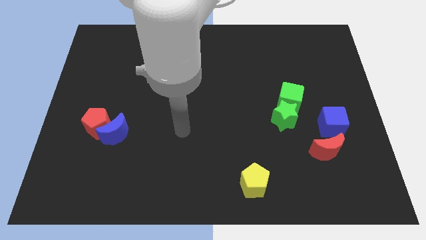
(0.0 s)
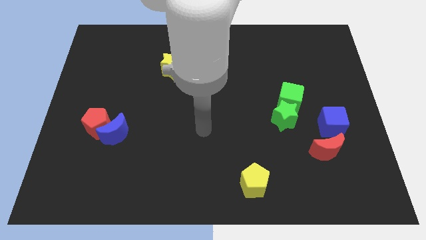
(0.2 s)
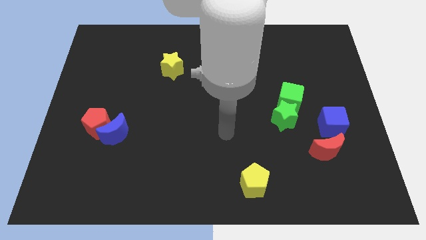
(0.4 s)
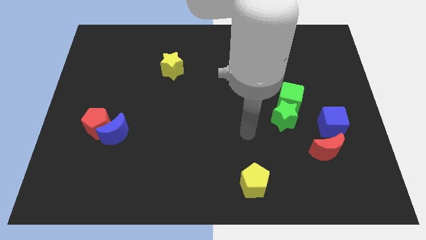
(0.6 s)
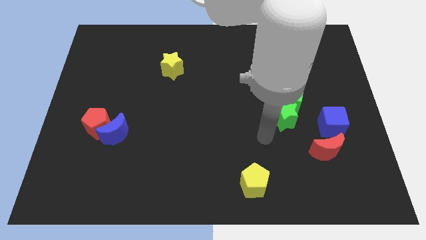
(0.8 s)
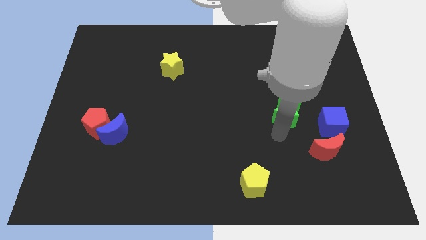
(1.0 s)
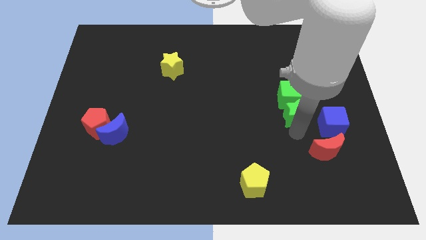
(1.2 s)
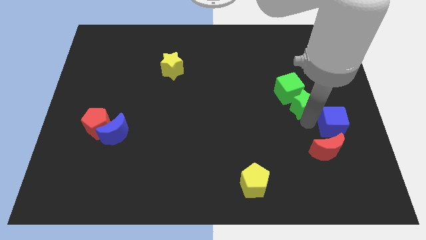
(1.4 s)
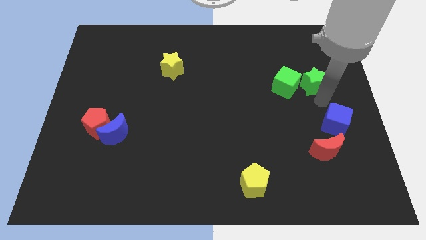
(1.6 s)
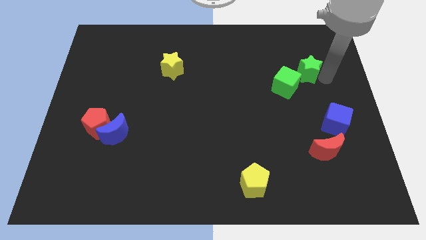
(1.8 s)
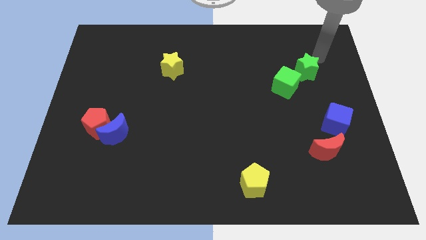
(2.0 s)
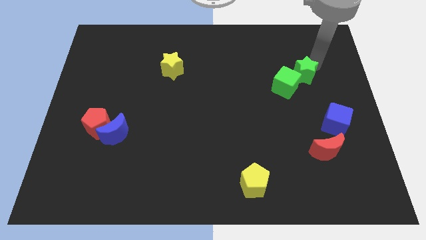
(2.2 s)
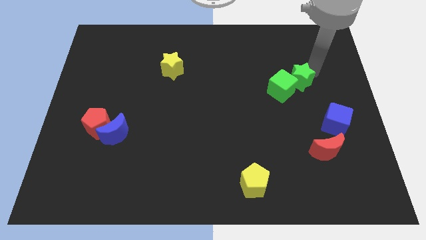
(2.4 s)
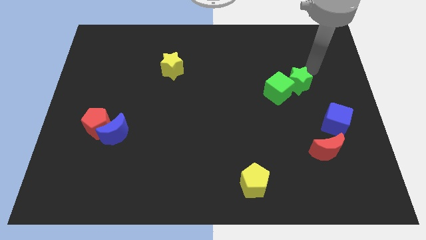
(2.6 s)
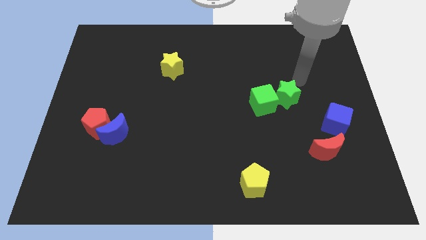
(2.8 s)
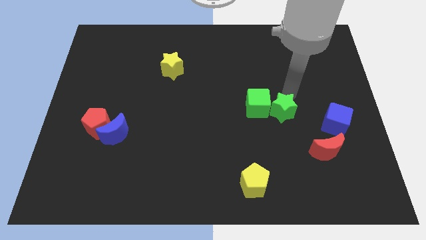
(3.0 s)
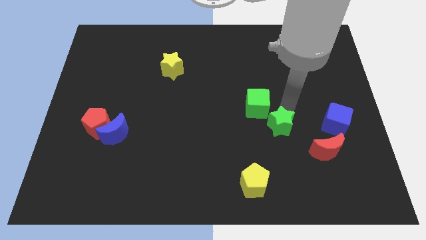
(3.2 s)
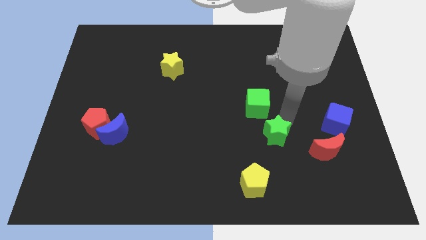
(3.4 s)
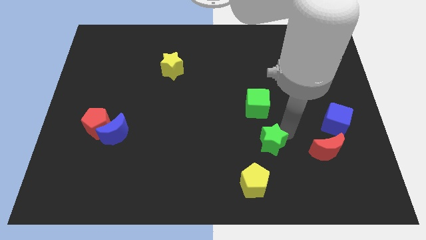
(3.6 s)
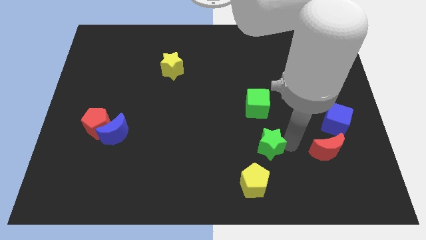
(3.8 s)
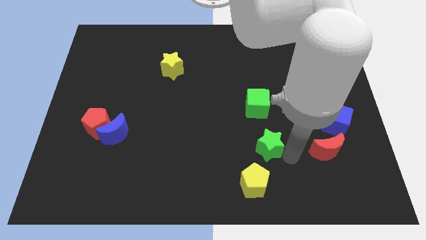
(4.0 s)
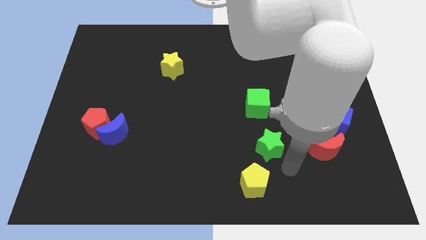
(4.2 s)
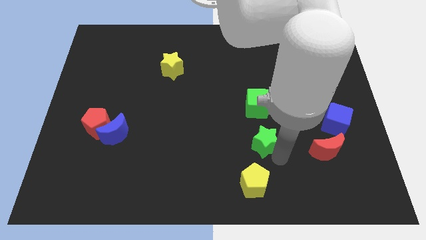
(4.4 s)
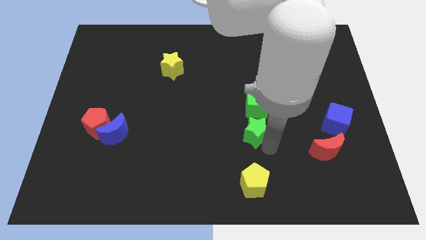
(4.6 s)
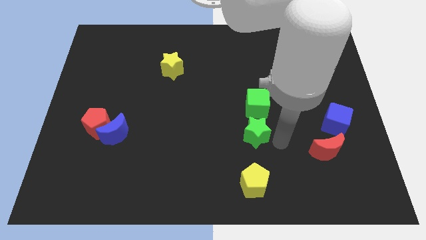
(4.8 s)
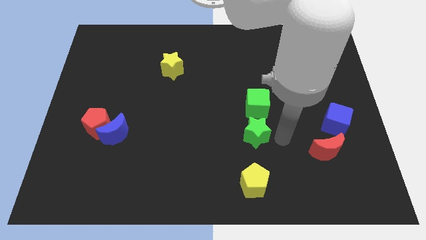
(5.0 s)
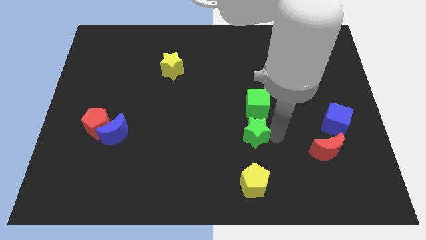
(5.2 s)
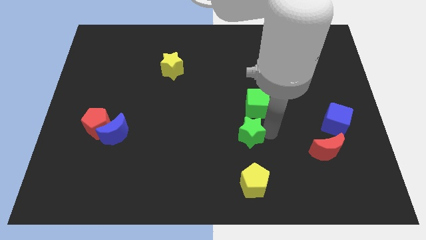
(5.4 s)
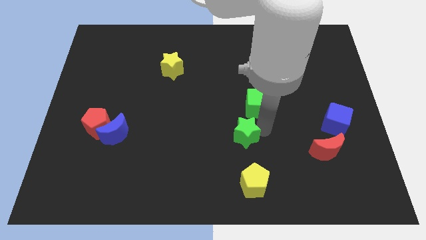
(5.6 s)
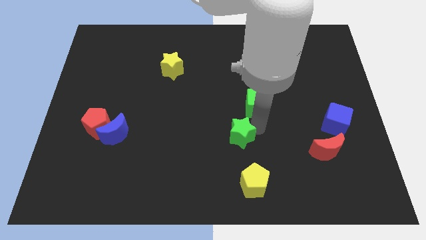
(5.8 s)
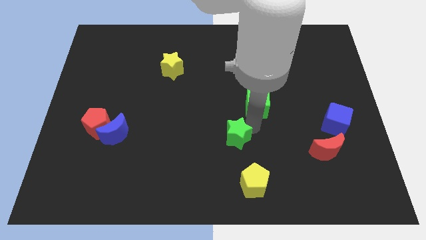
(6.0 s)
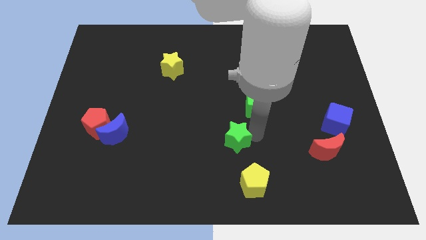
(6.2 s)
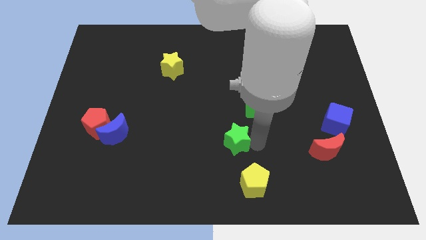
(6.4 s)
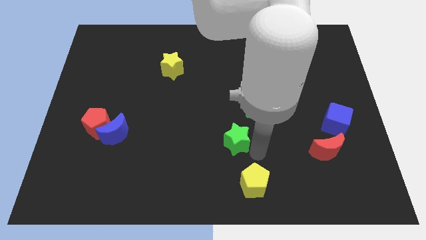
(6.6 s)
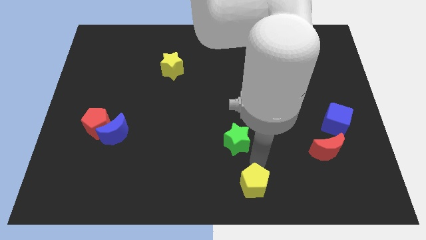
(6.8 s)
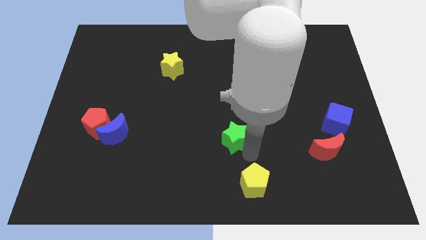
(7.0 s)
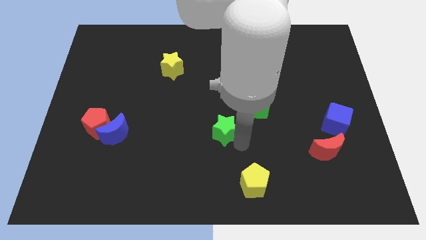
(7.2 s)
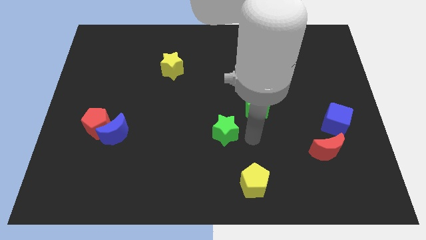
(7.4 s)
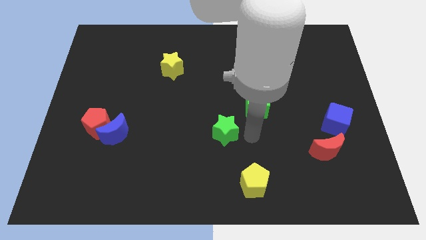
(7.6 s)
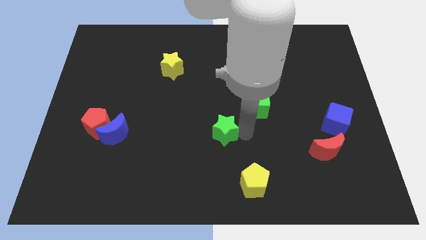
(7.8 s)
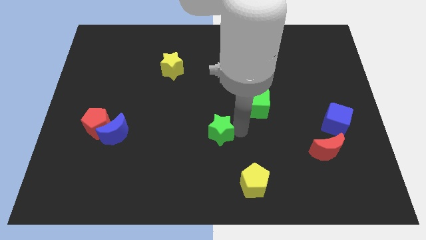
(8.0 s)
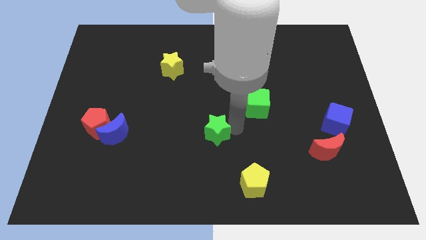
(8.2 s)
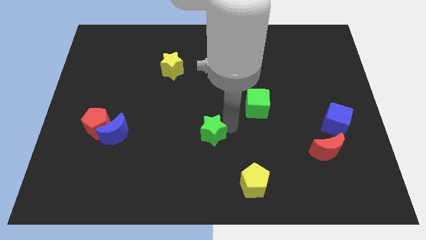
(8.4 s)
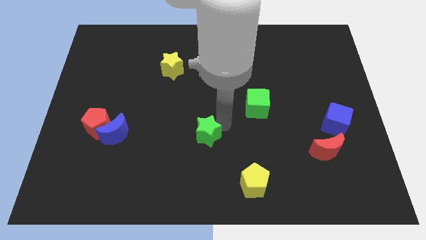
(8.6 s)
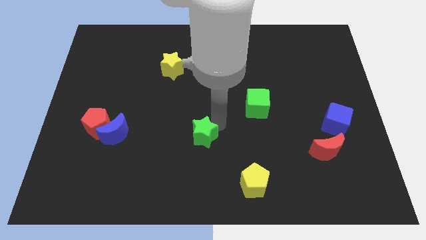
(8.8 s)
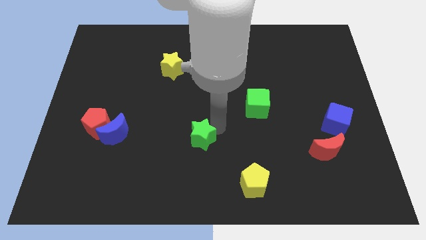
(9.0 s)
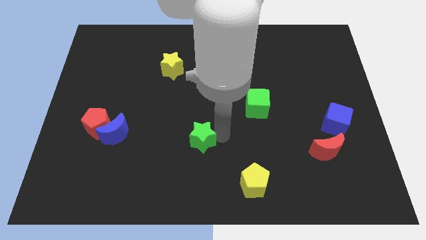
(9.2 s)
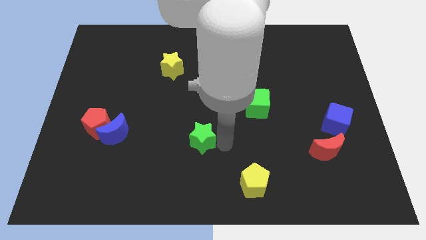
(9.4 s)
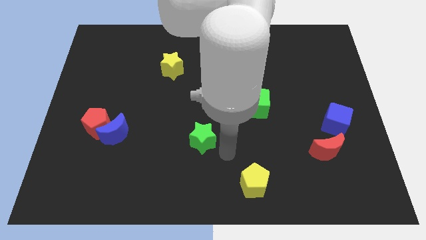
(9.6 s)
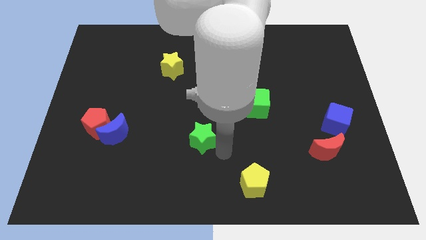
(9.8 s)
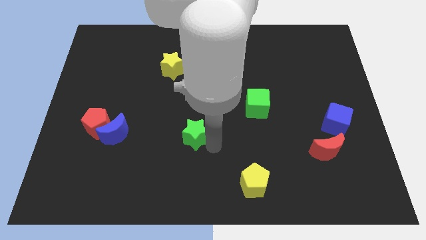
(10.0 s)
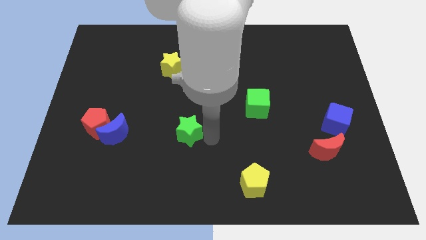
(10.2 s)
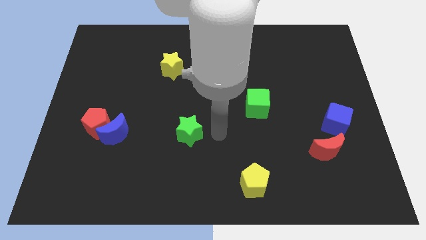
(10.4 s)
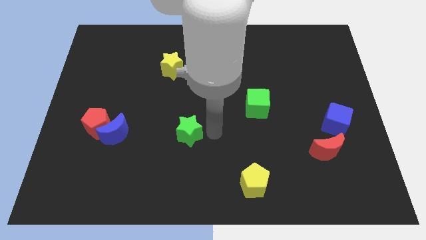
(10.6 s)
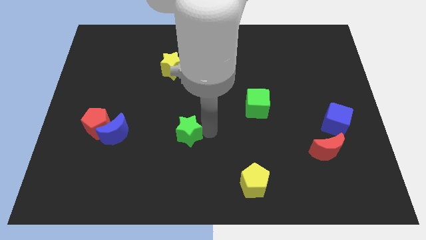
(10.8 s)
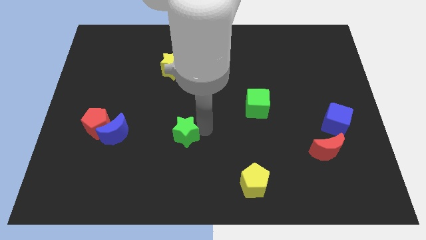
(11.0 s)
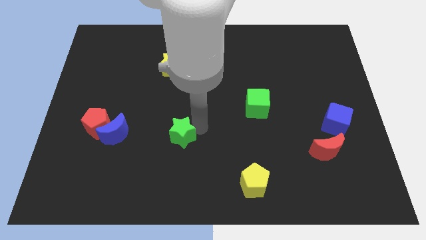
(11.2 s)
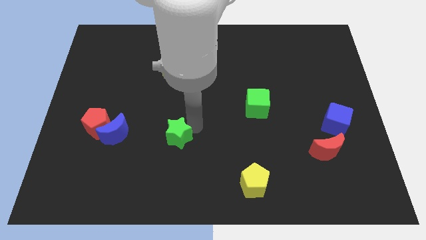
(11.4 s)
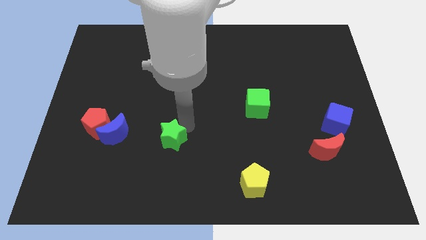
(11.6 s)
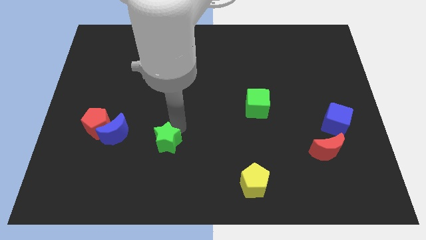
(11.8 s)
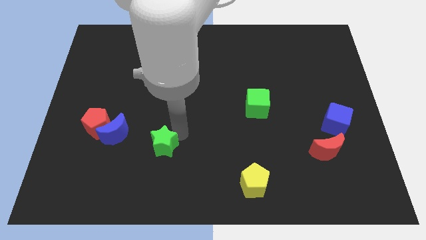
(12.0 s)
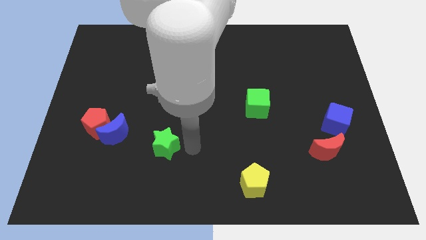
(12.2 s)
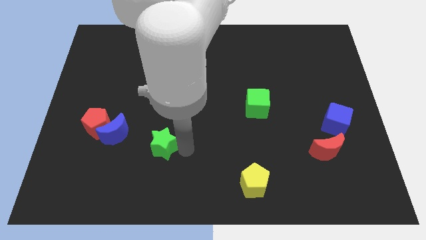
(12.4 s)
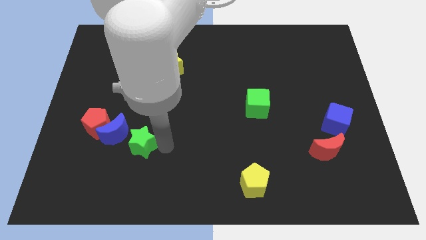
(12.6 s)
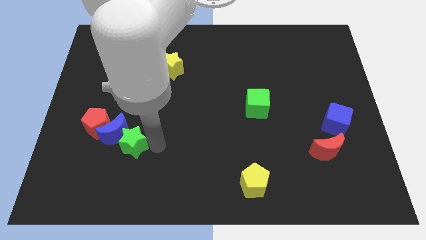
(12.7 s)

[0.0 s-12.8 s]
move the green star to the blue moon

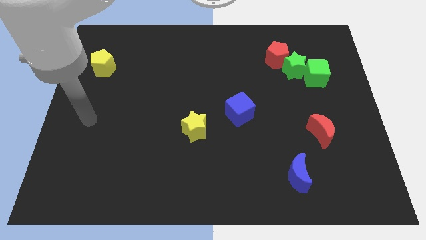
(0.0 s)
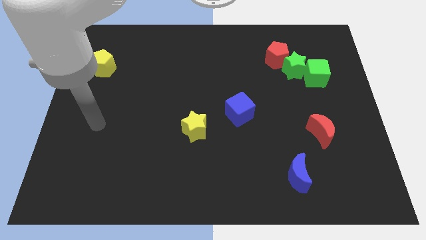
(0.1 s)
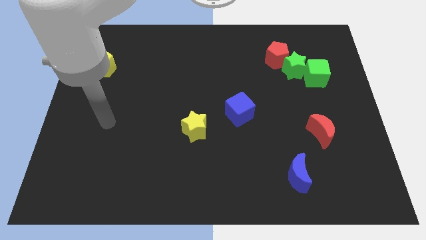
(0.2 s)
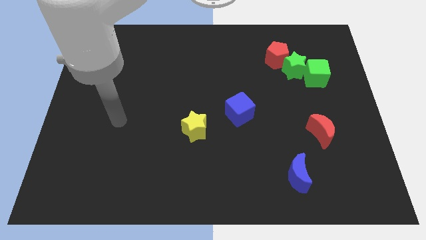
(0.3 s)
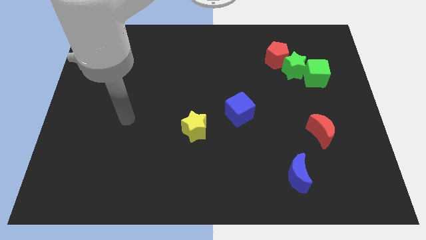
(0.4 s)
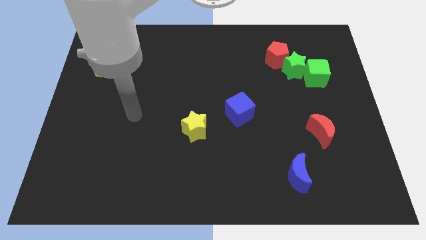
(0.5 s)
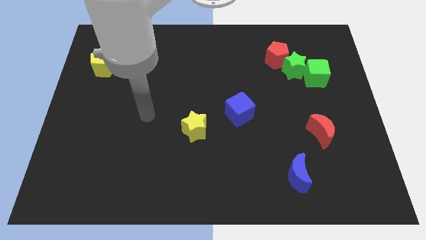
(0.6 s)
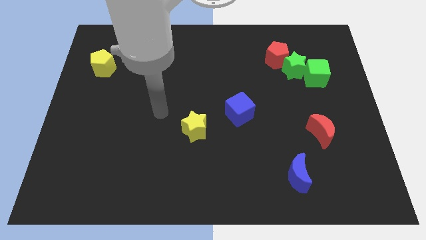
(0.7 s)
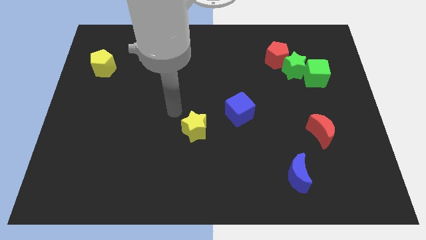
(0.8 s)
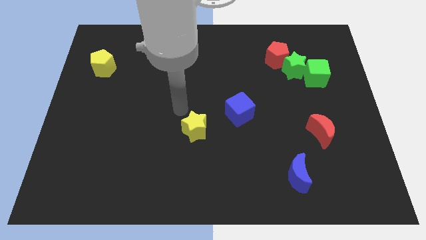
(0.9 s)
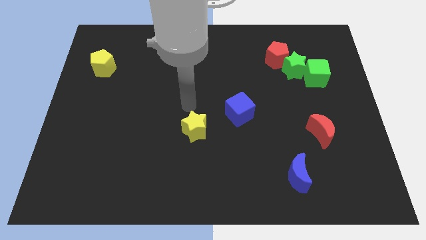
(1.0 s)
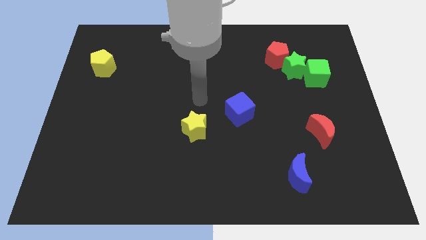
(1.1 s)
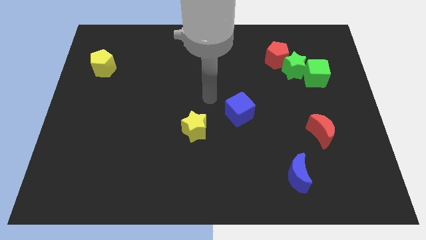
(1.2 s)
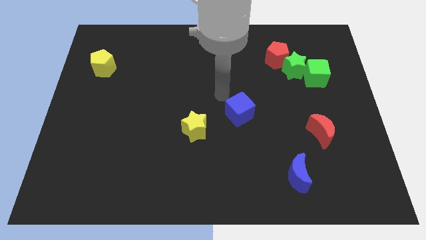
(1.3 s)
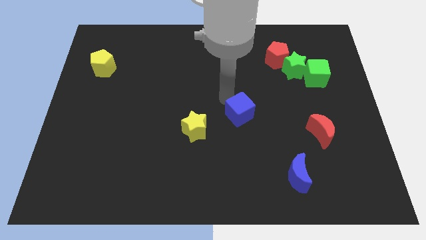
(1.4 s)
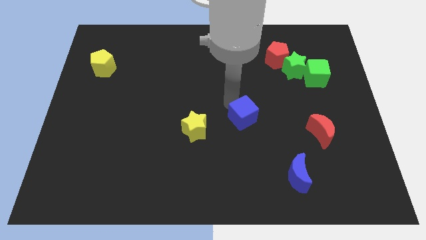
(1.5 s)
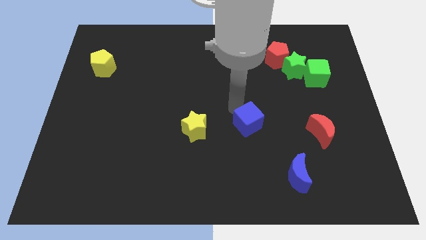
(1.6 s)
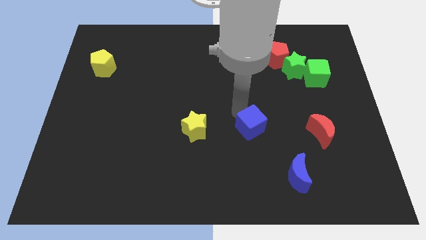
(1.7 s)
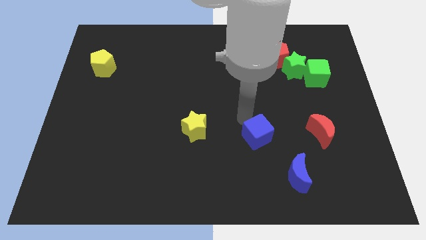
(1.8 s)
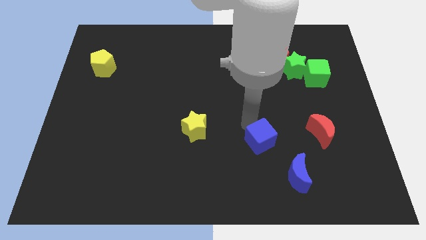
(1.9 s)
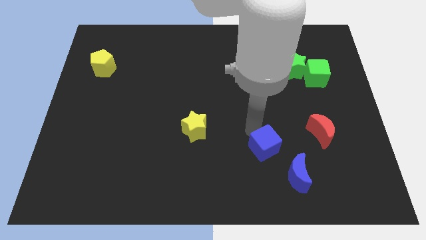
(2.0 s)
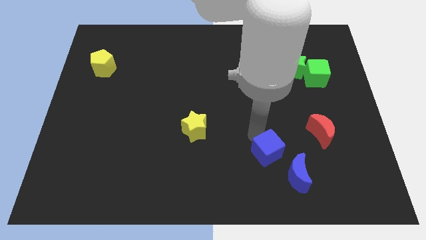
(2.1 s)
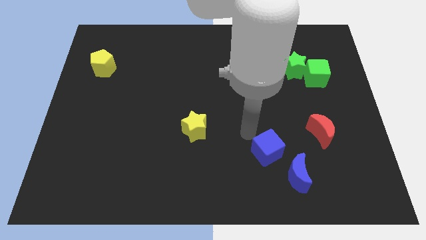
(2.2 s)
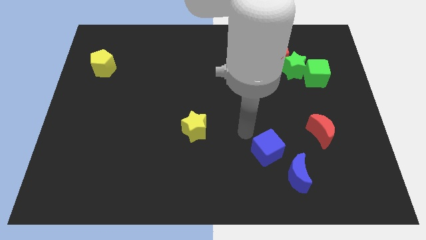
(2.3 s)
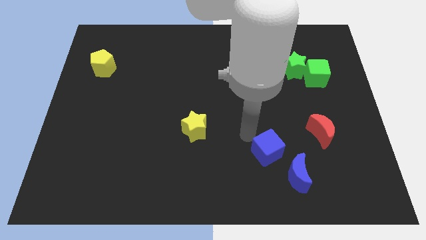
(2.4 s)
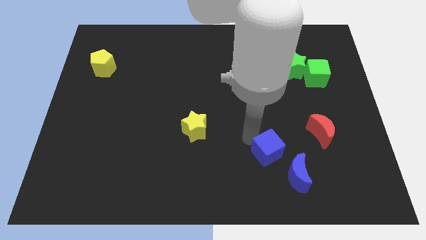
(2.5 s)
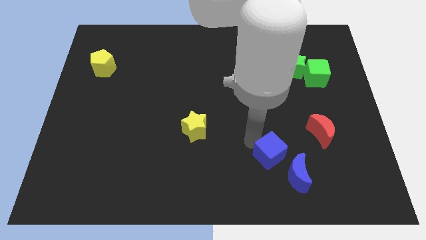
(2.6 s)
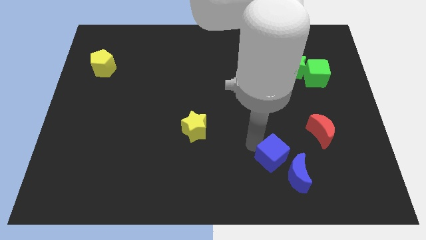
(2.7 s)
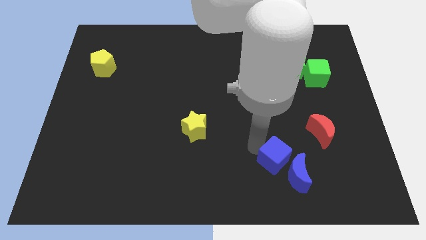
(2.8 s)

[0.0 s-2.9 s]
move the blue cube towards the blue moon
